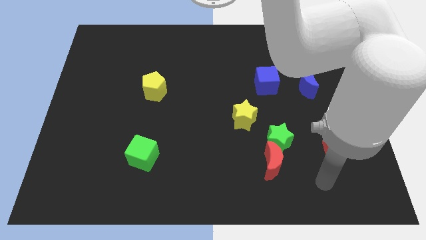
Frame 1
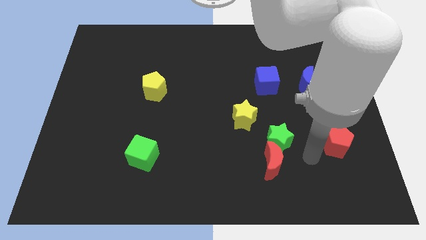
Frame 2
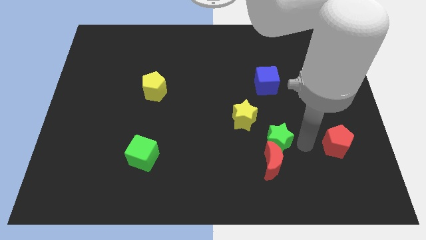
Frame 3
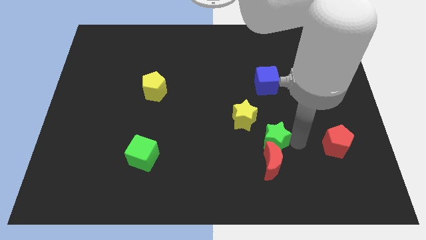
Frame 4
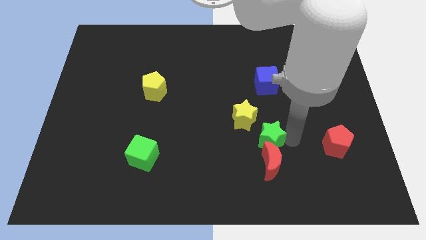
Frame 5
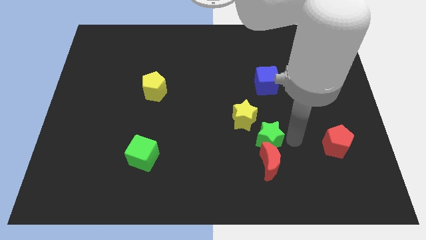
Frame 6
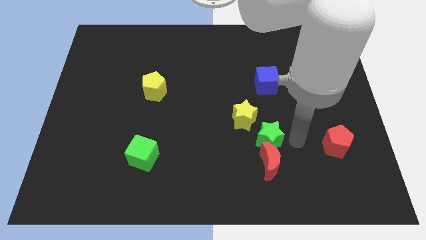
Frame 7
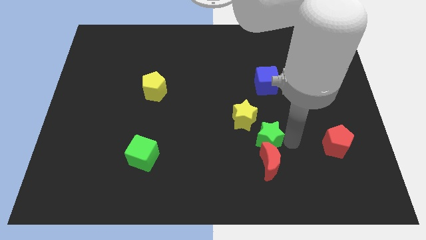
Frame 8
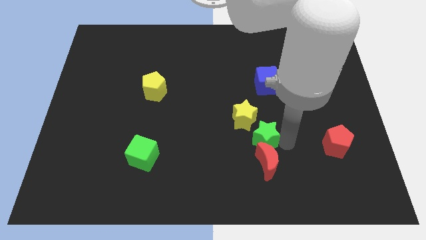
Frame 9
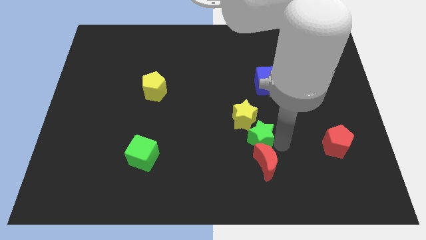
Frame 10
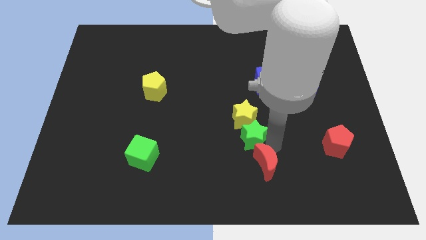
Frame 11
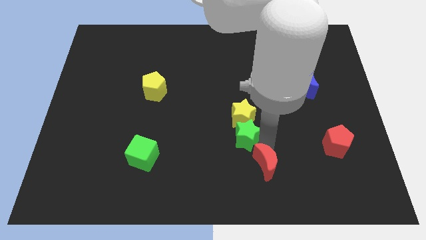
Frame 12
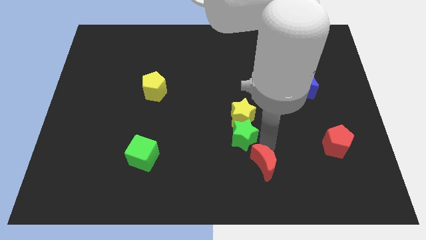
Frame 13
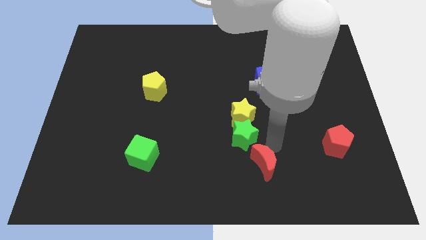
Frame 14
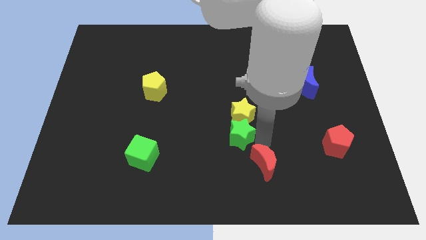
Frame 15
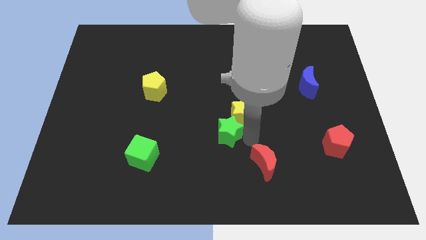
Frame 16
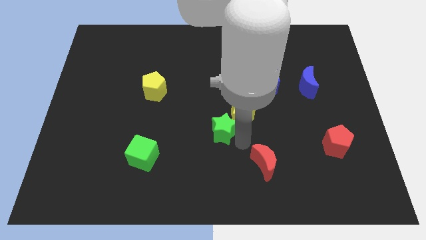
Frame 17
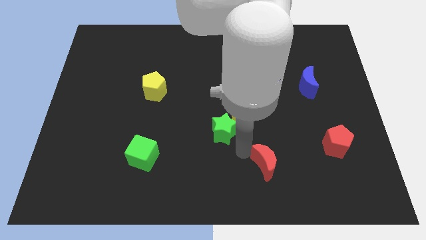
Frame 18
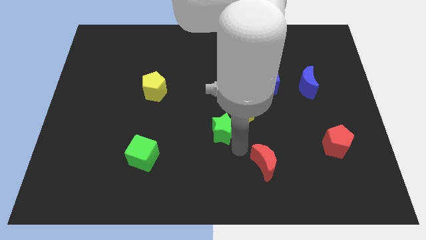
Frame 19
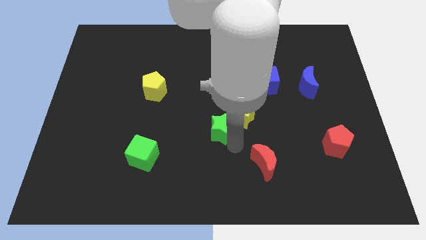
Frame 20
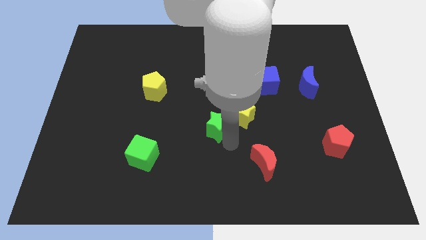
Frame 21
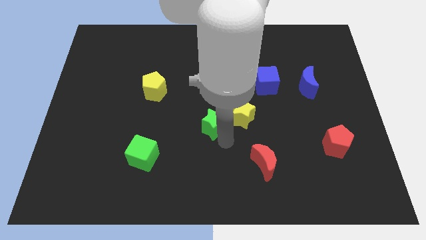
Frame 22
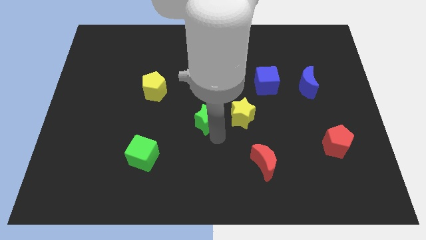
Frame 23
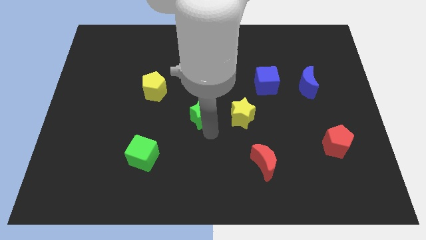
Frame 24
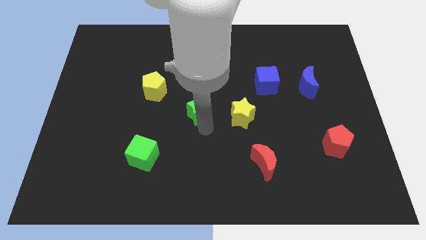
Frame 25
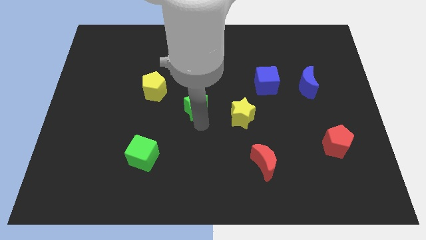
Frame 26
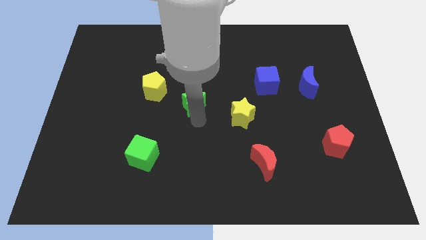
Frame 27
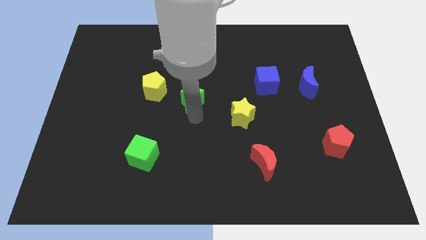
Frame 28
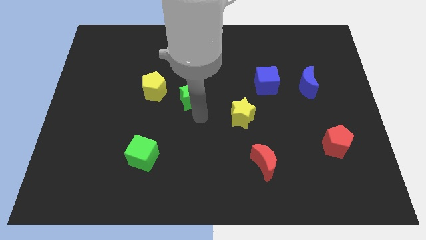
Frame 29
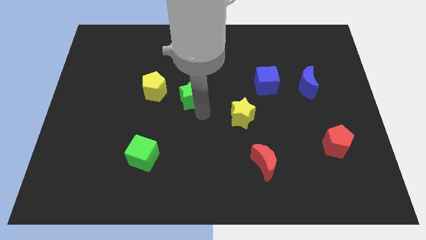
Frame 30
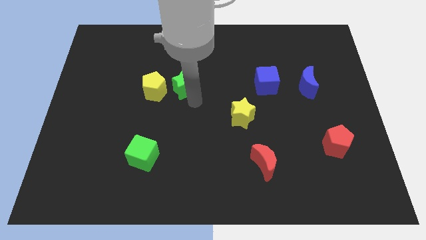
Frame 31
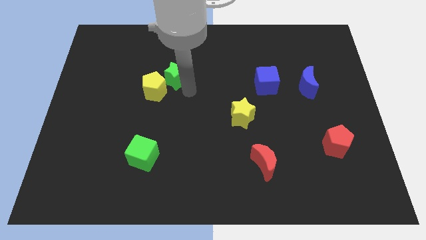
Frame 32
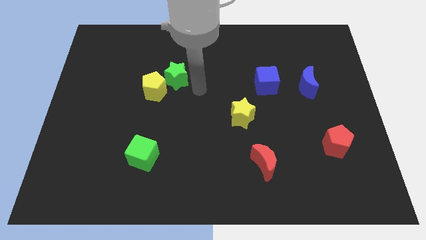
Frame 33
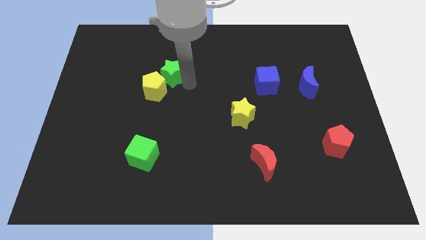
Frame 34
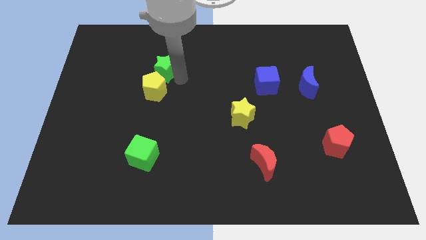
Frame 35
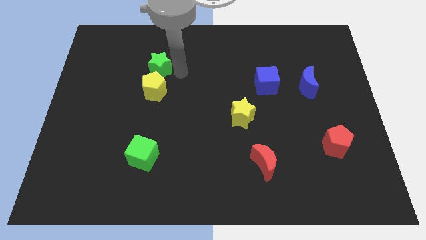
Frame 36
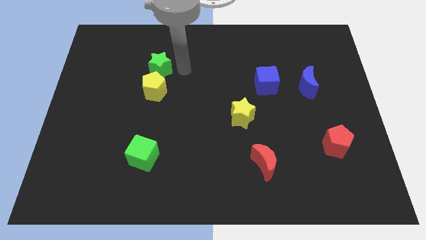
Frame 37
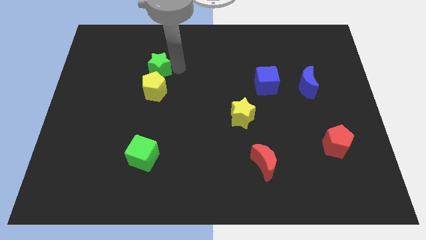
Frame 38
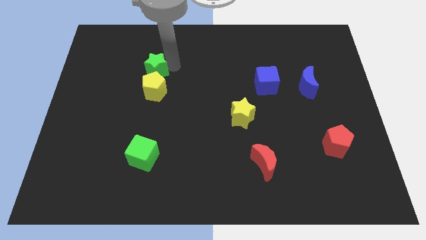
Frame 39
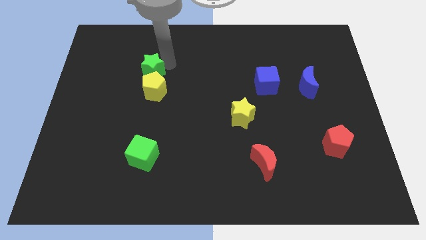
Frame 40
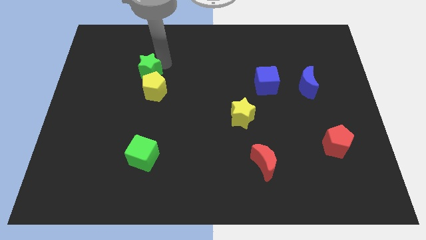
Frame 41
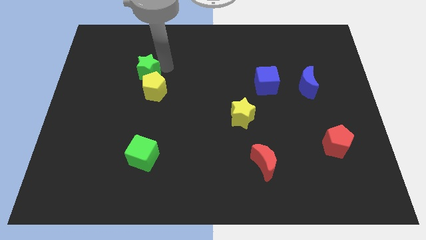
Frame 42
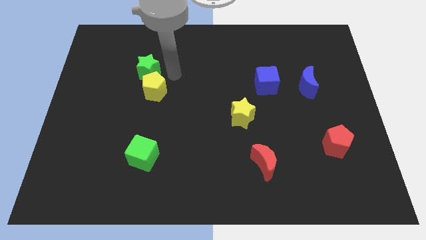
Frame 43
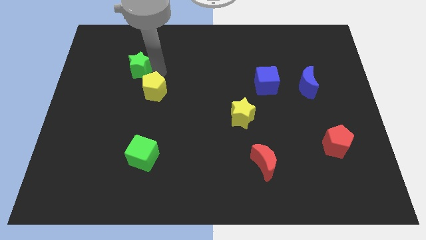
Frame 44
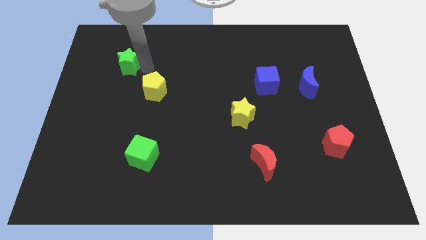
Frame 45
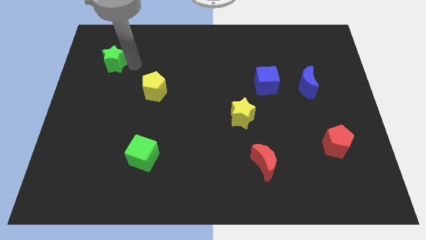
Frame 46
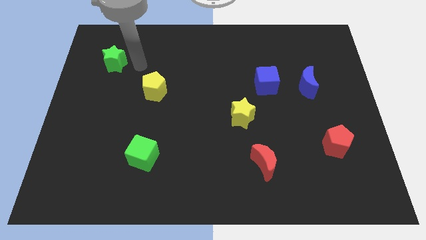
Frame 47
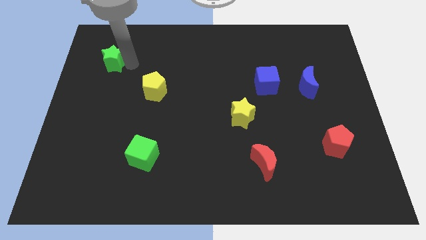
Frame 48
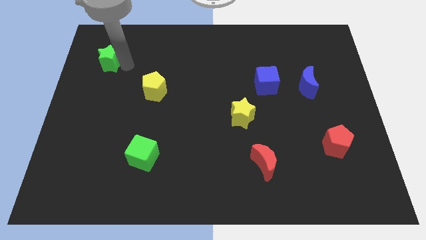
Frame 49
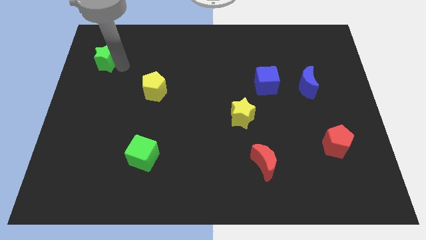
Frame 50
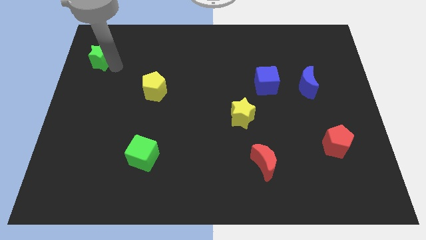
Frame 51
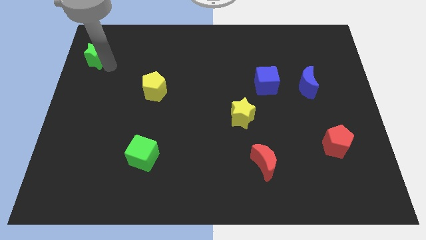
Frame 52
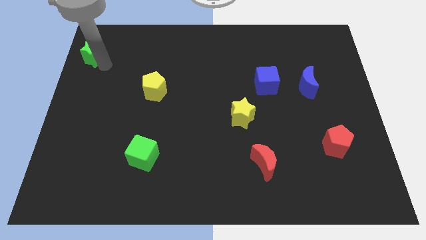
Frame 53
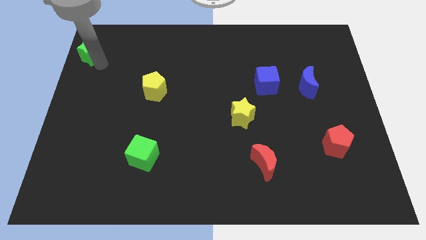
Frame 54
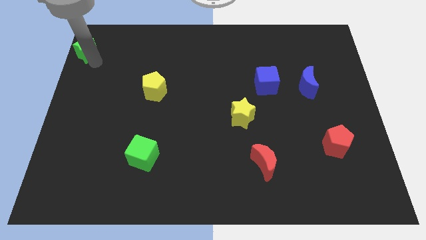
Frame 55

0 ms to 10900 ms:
slide the green star to the top left of the board
